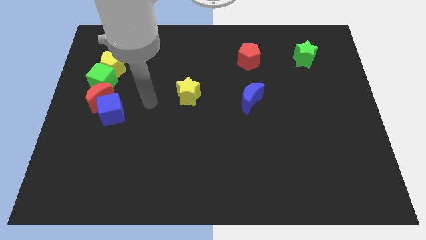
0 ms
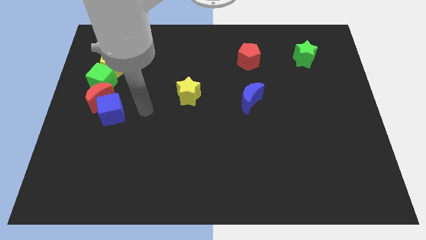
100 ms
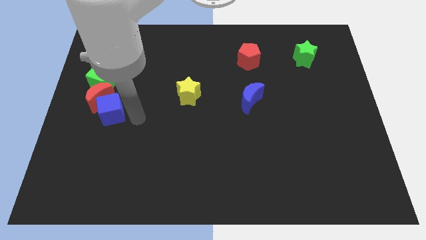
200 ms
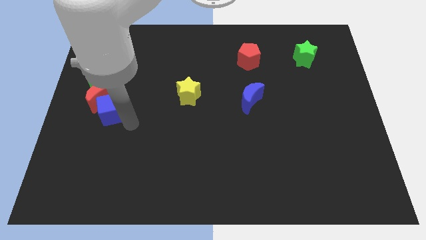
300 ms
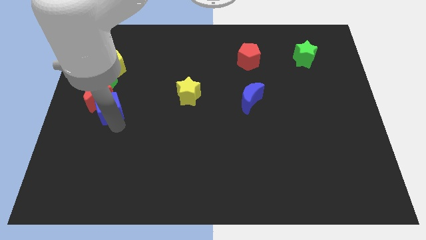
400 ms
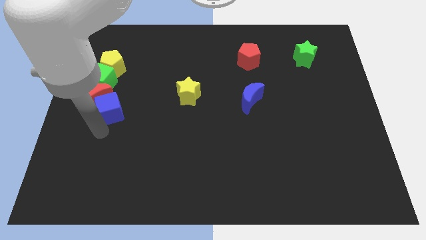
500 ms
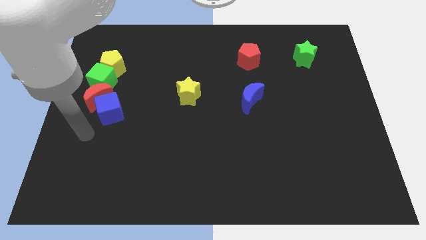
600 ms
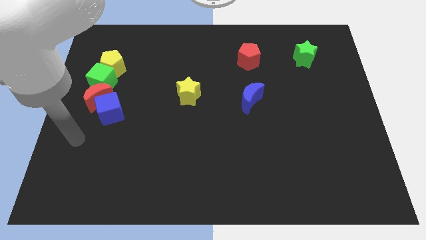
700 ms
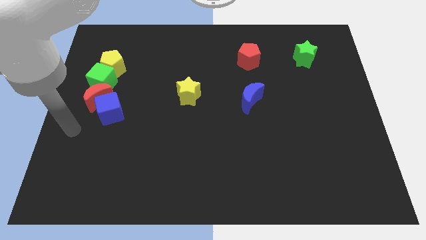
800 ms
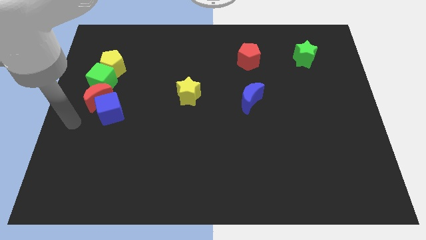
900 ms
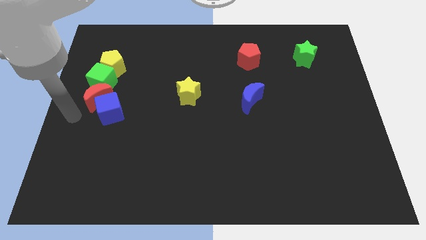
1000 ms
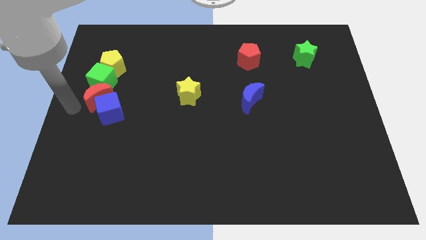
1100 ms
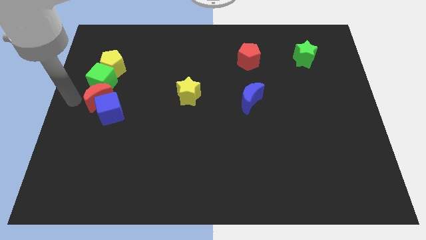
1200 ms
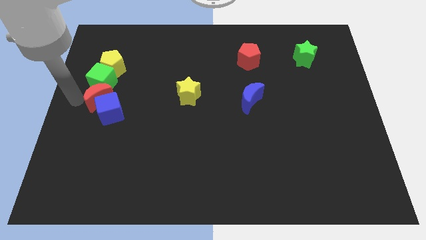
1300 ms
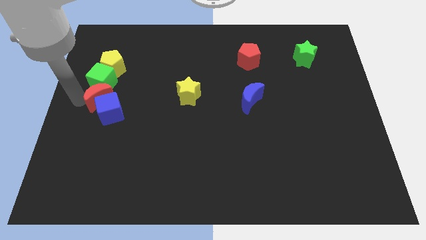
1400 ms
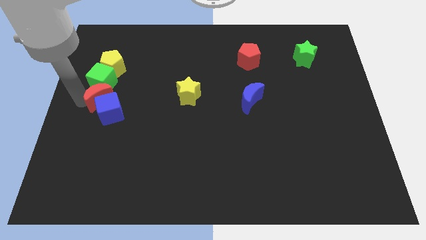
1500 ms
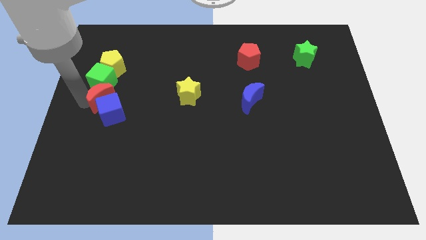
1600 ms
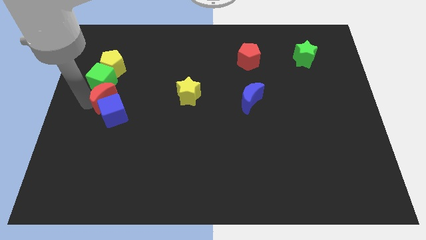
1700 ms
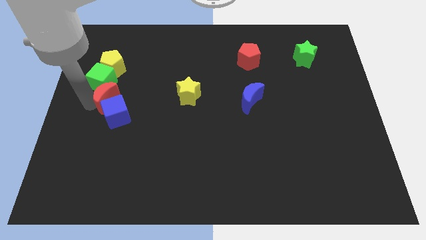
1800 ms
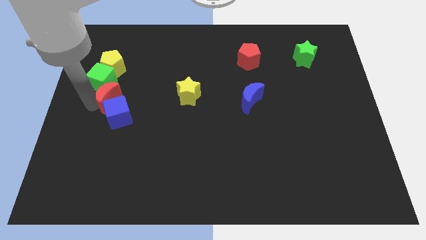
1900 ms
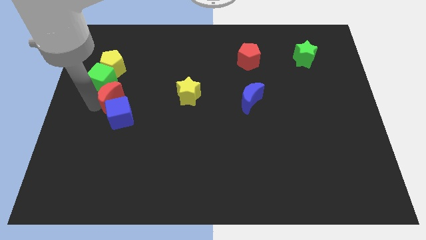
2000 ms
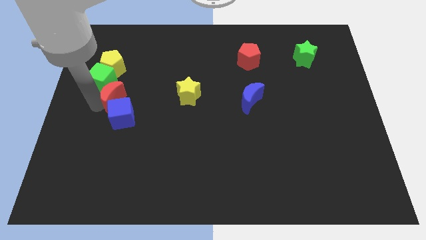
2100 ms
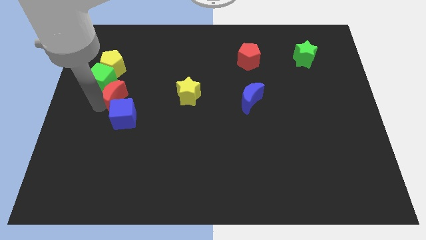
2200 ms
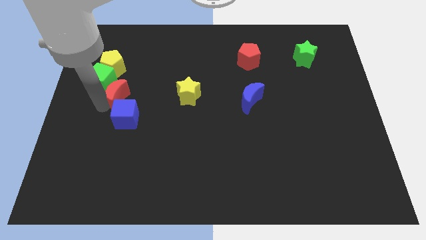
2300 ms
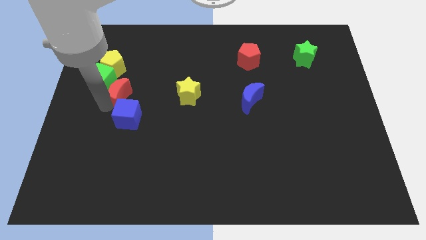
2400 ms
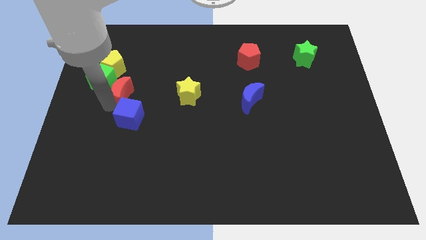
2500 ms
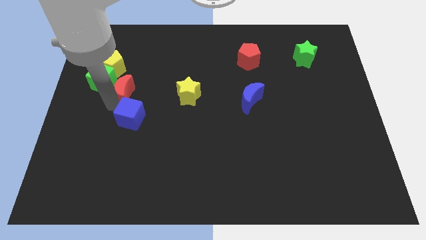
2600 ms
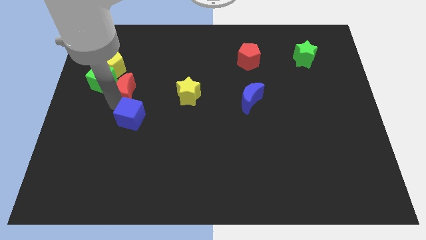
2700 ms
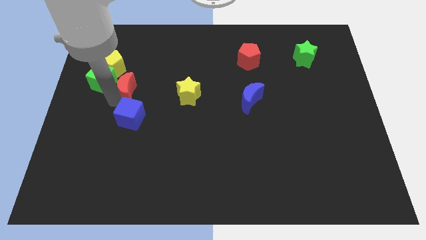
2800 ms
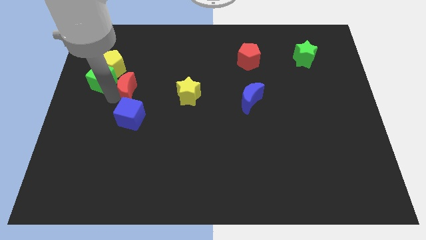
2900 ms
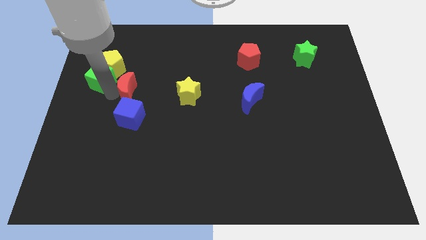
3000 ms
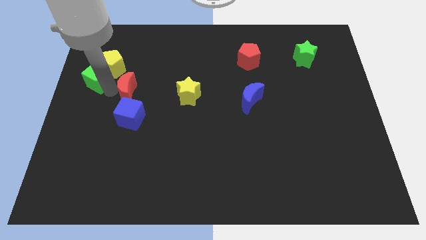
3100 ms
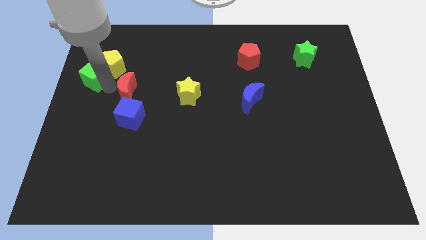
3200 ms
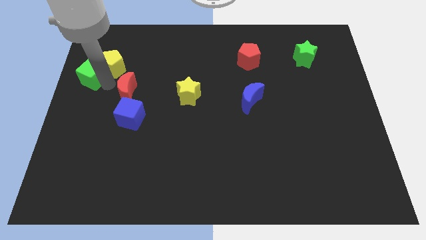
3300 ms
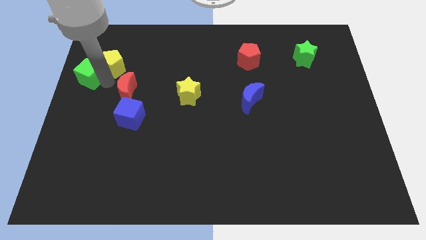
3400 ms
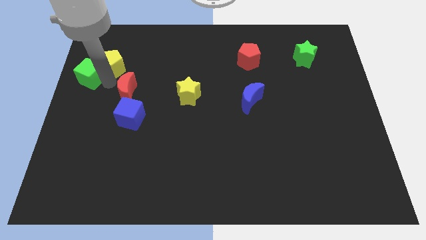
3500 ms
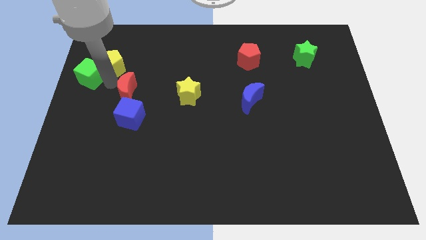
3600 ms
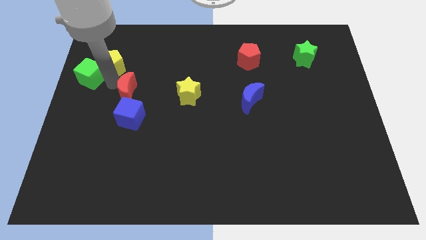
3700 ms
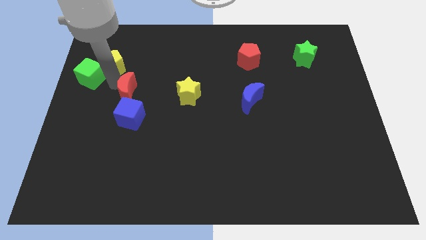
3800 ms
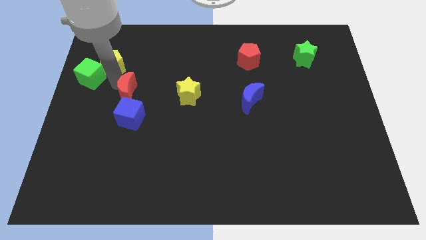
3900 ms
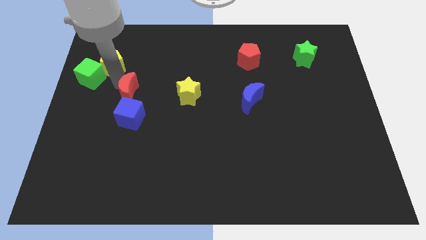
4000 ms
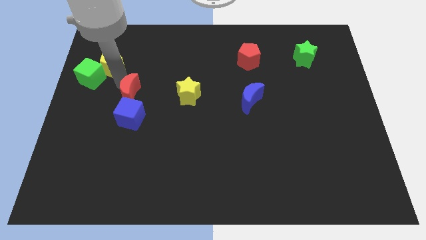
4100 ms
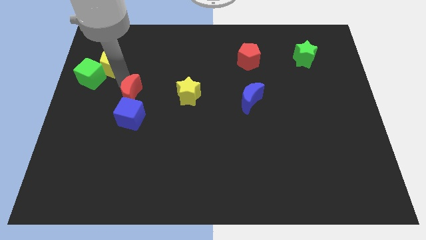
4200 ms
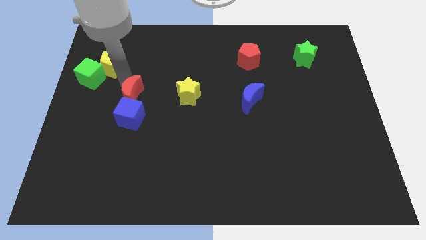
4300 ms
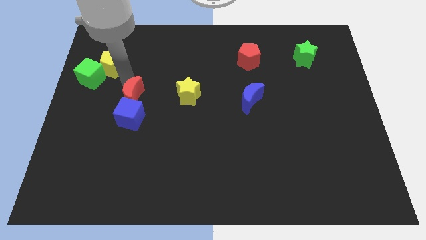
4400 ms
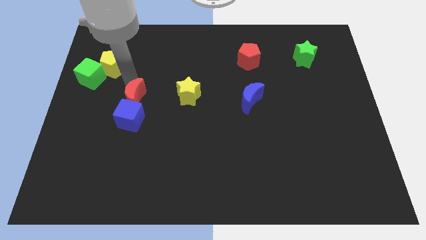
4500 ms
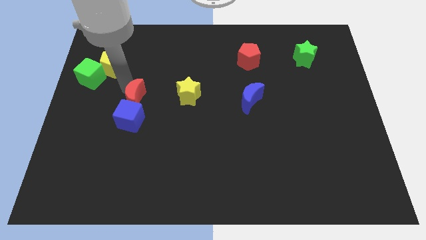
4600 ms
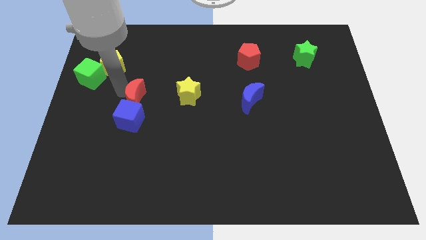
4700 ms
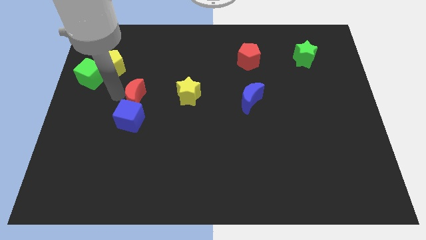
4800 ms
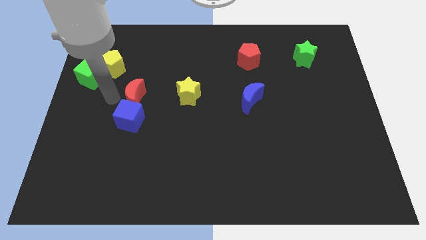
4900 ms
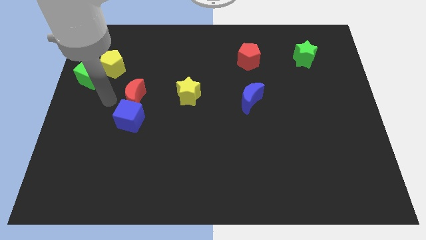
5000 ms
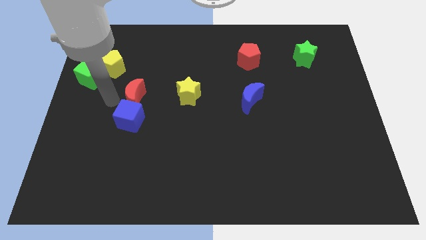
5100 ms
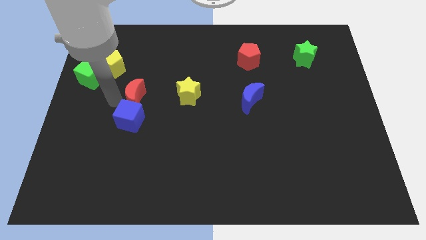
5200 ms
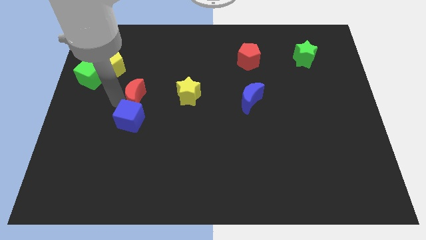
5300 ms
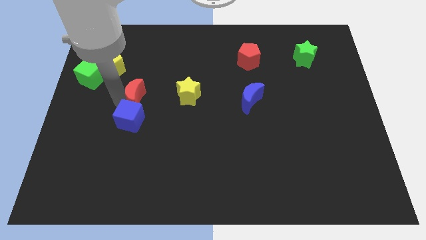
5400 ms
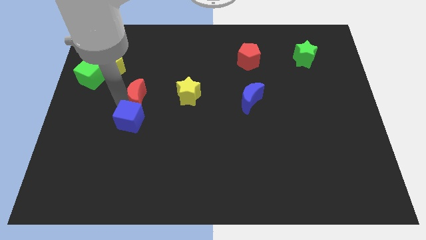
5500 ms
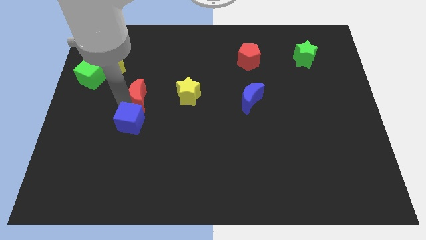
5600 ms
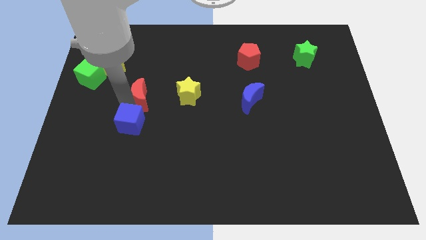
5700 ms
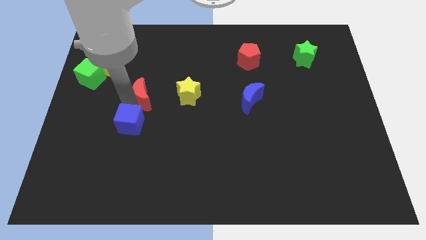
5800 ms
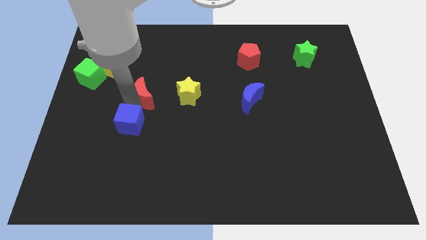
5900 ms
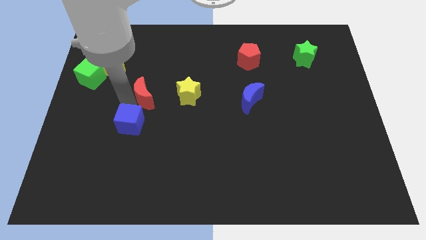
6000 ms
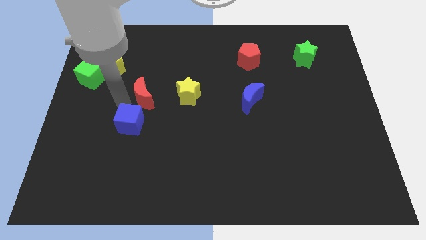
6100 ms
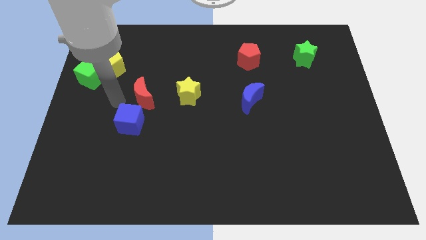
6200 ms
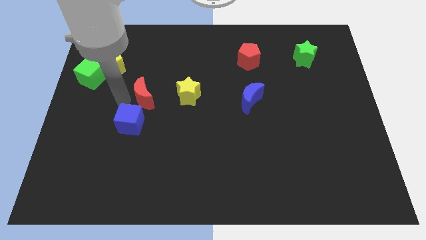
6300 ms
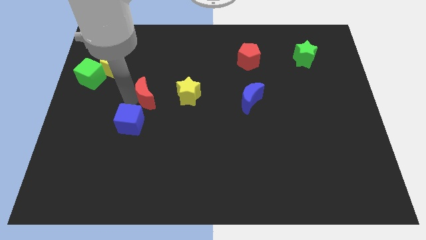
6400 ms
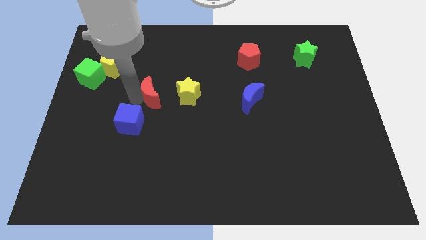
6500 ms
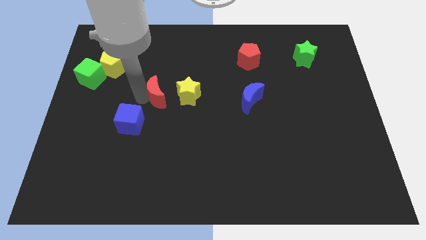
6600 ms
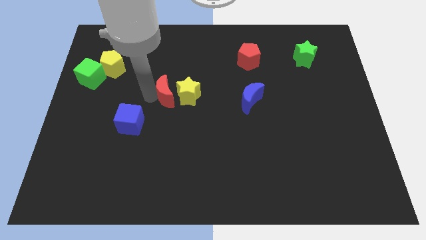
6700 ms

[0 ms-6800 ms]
move the red moon next to the yellow star
